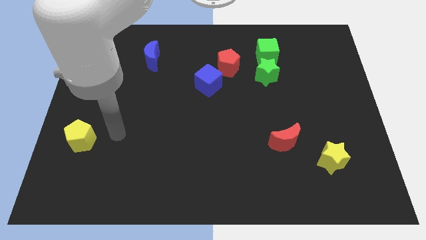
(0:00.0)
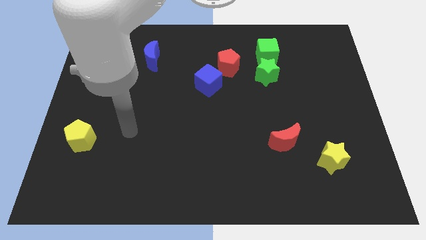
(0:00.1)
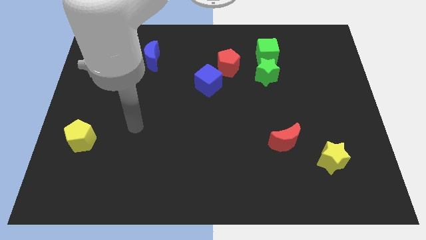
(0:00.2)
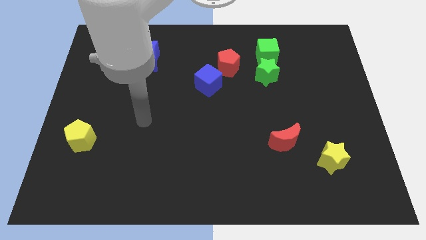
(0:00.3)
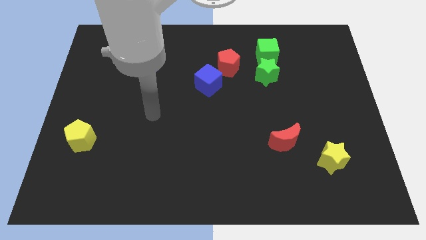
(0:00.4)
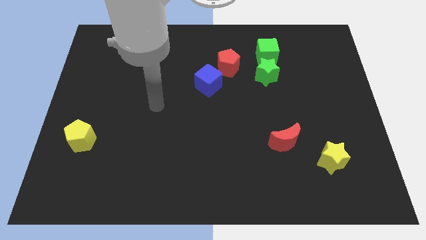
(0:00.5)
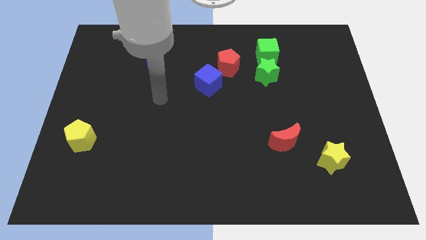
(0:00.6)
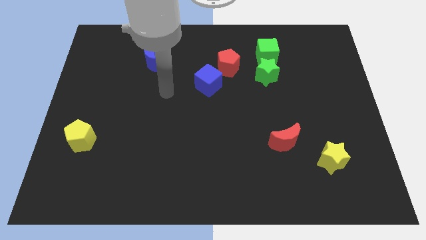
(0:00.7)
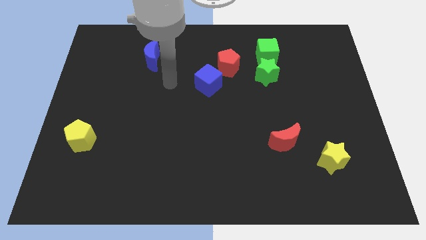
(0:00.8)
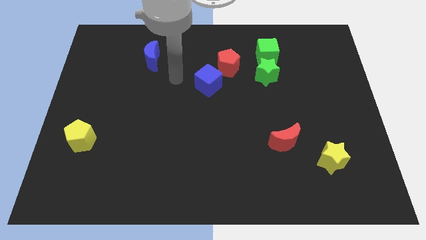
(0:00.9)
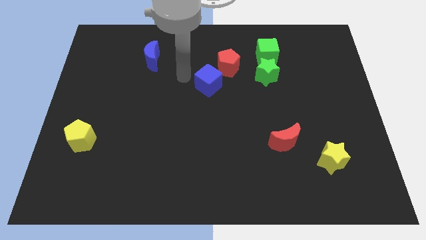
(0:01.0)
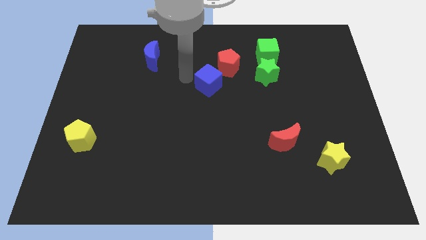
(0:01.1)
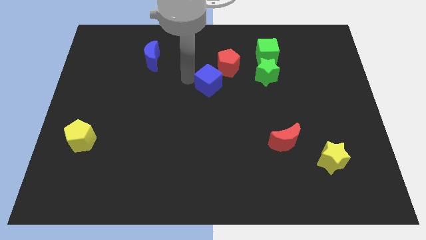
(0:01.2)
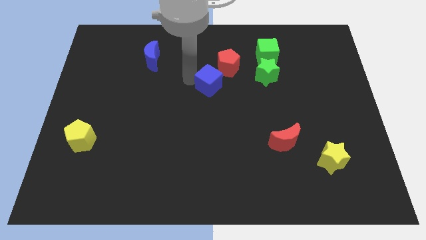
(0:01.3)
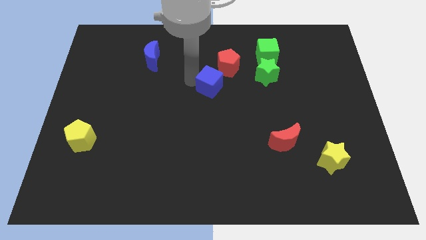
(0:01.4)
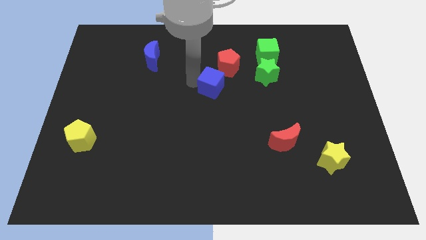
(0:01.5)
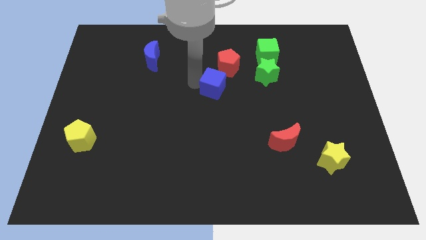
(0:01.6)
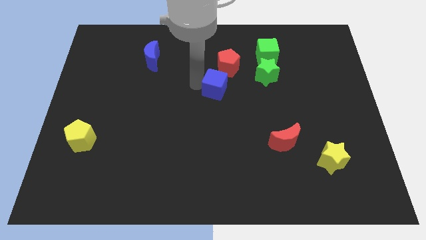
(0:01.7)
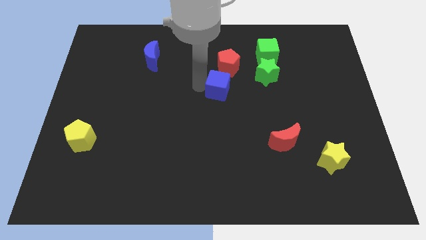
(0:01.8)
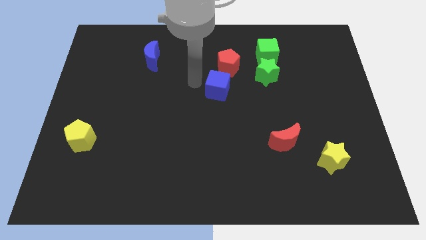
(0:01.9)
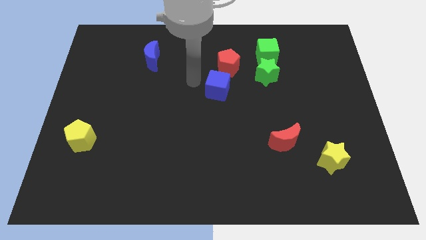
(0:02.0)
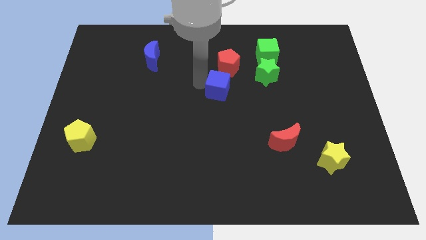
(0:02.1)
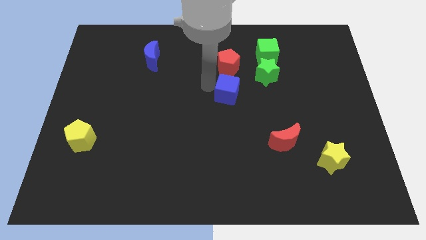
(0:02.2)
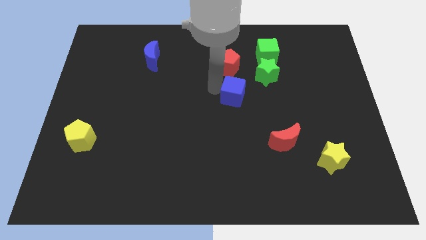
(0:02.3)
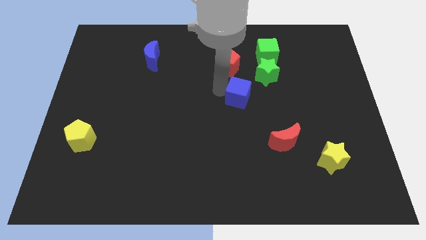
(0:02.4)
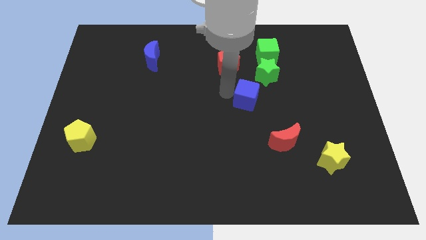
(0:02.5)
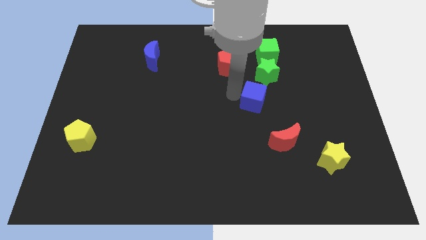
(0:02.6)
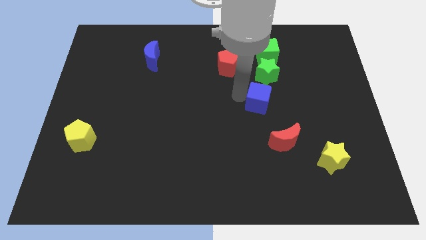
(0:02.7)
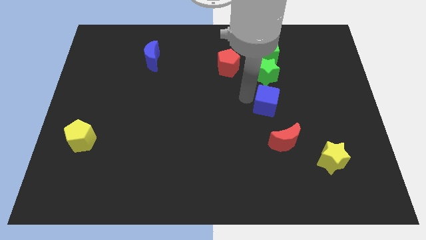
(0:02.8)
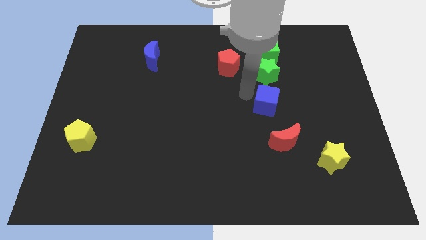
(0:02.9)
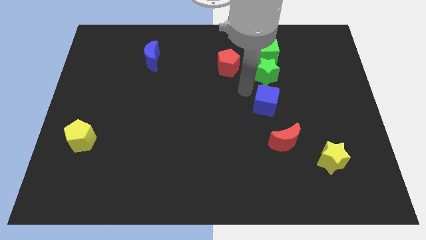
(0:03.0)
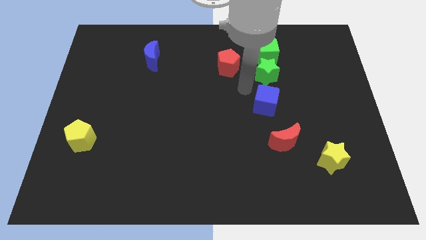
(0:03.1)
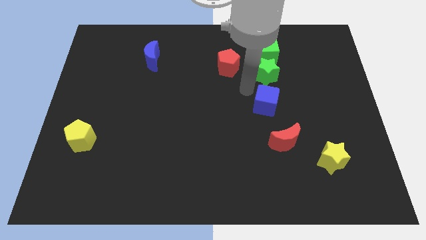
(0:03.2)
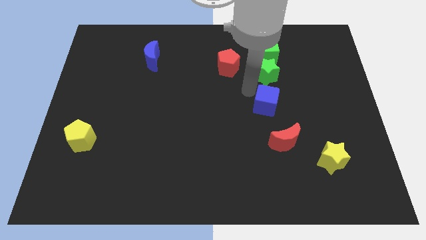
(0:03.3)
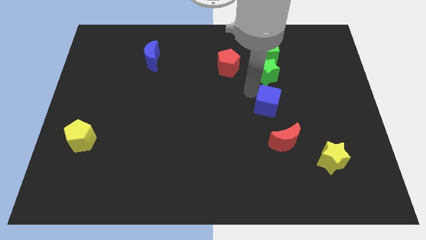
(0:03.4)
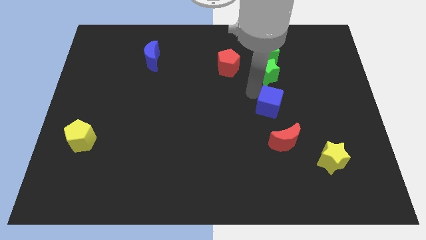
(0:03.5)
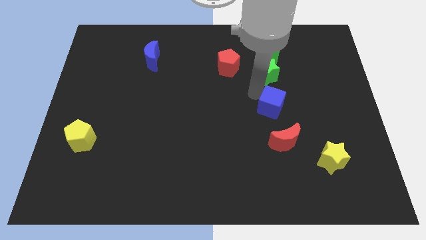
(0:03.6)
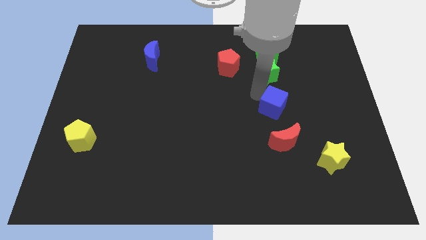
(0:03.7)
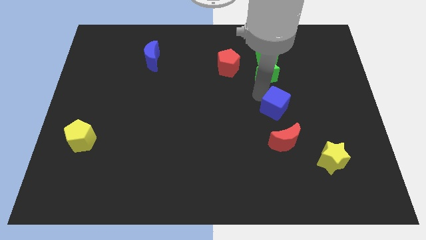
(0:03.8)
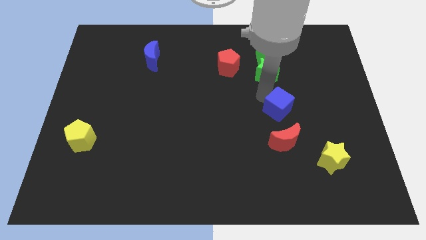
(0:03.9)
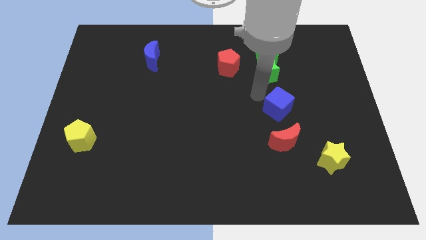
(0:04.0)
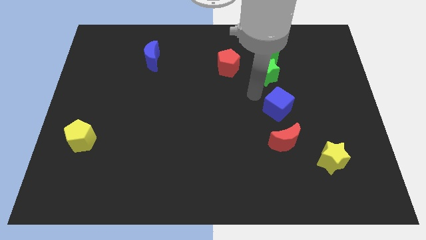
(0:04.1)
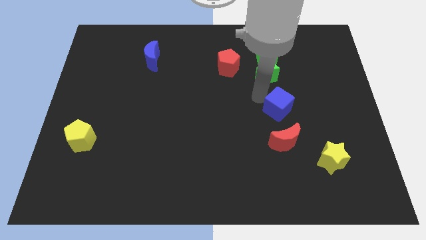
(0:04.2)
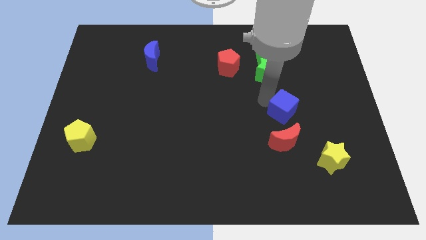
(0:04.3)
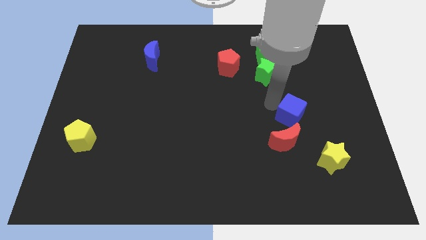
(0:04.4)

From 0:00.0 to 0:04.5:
put the blue cube to the top right side of the red moon

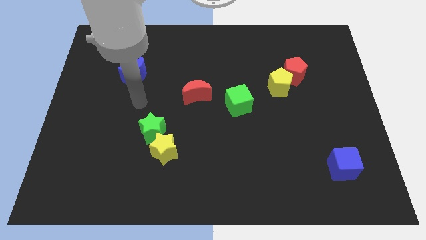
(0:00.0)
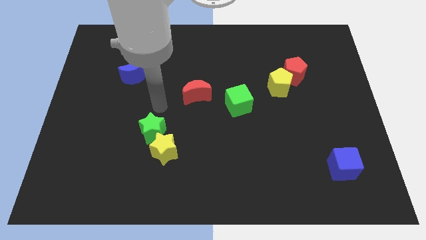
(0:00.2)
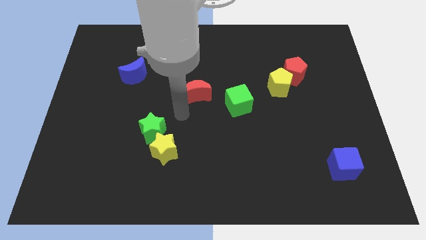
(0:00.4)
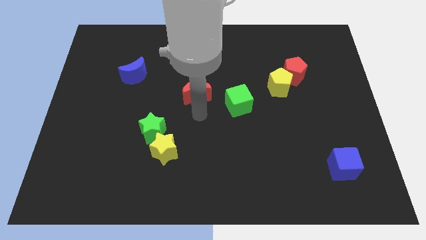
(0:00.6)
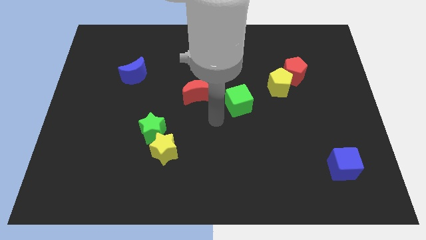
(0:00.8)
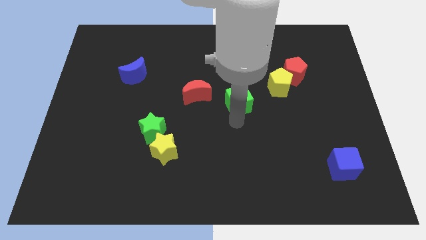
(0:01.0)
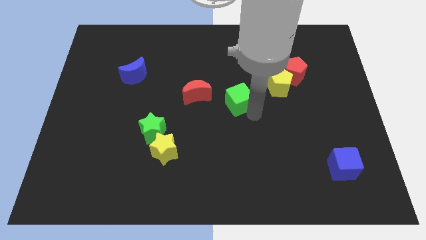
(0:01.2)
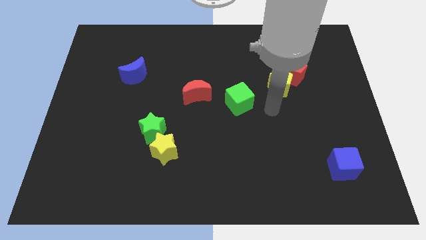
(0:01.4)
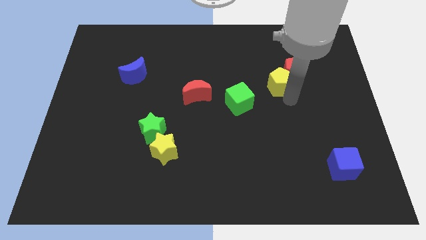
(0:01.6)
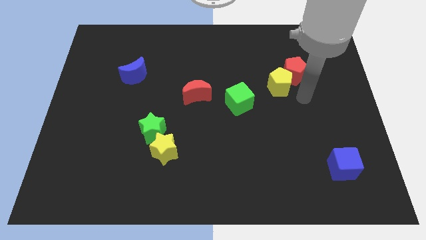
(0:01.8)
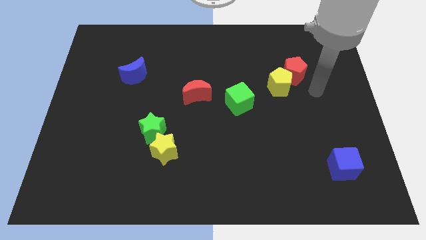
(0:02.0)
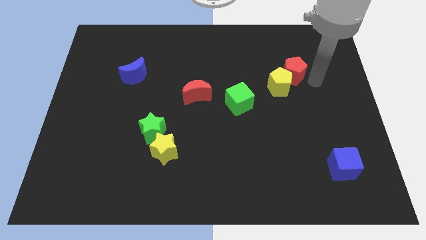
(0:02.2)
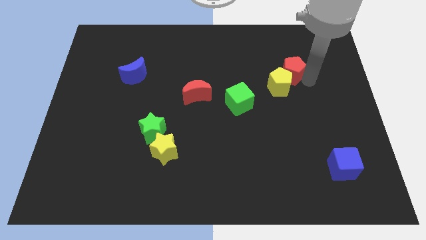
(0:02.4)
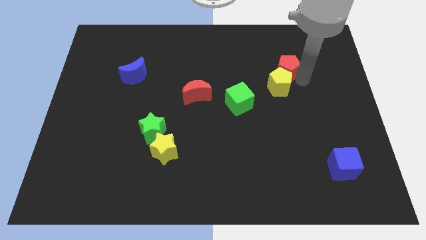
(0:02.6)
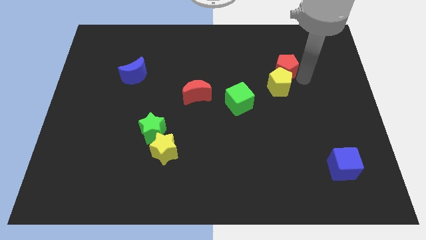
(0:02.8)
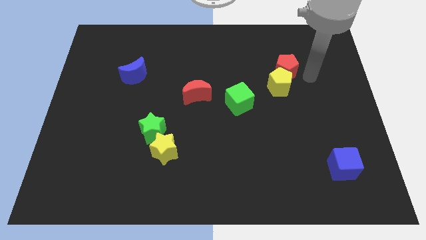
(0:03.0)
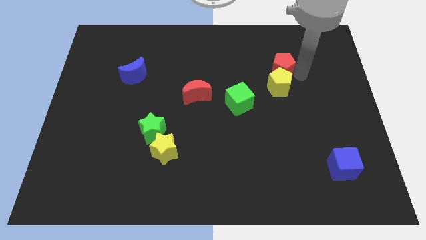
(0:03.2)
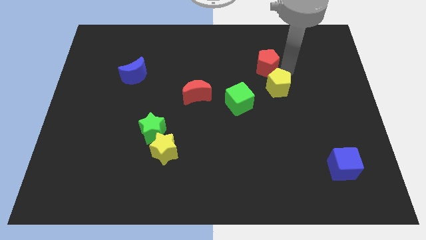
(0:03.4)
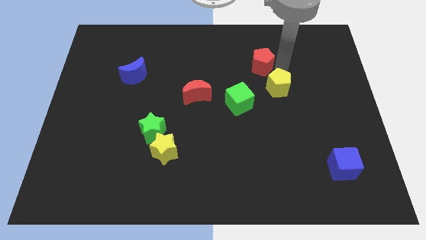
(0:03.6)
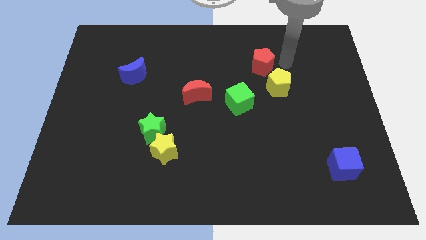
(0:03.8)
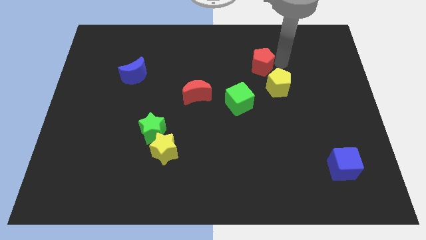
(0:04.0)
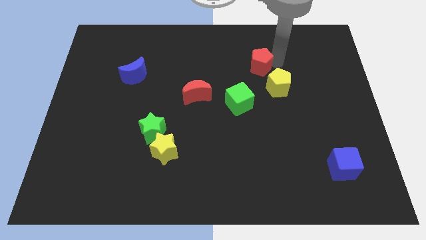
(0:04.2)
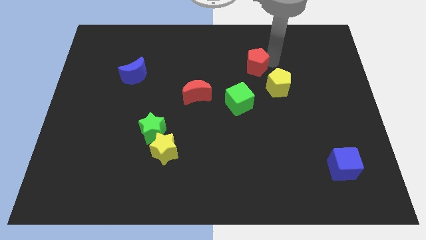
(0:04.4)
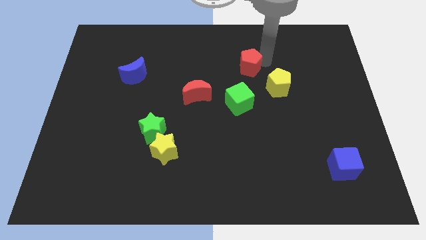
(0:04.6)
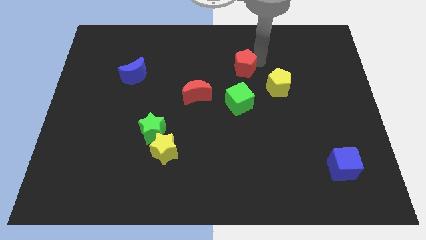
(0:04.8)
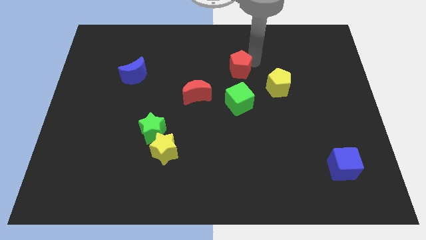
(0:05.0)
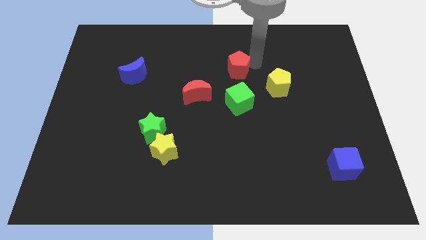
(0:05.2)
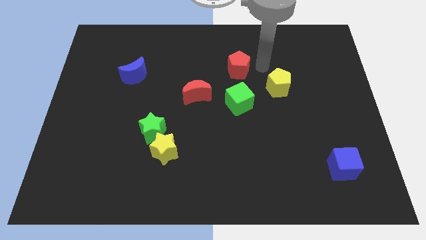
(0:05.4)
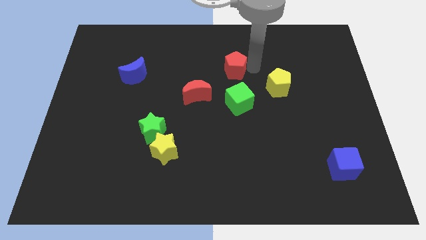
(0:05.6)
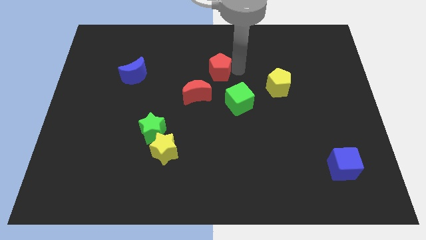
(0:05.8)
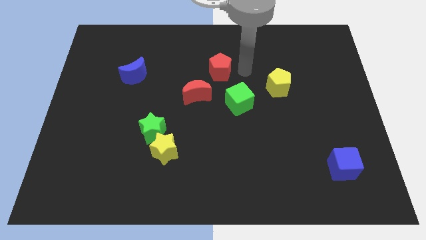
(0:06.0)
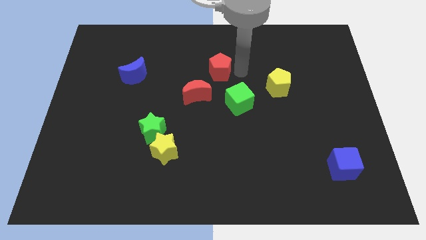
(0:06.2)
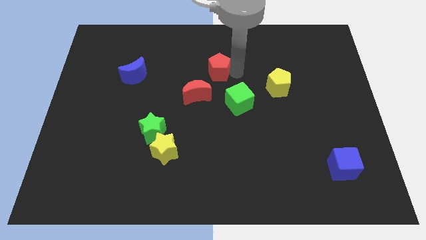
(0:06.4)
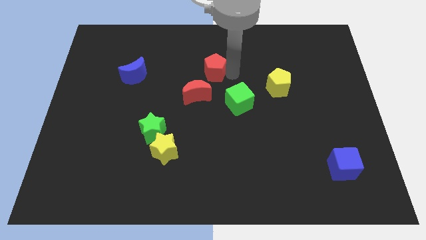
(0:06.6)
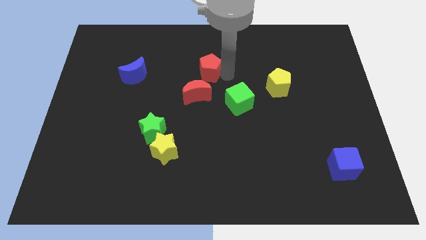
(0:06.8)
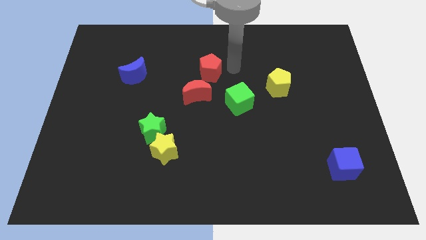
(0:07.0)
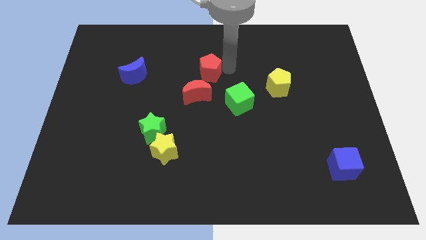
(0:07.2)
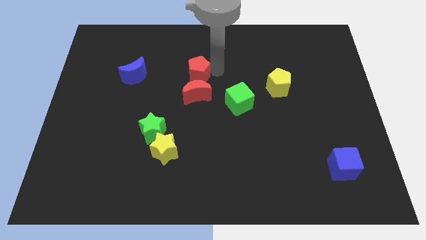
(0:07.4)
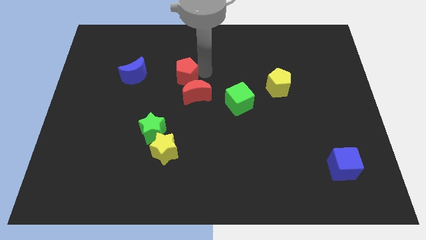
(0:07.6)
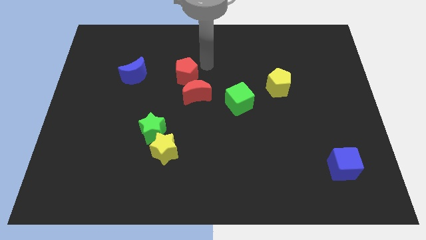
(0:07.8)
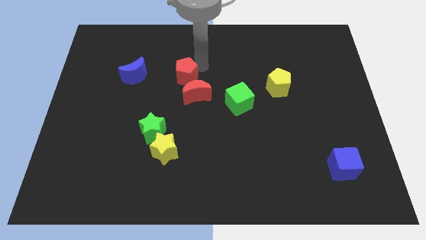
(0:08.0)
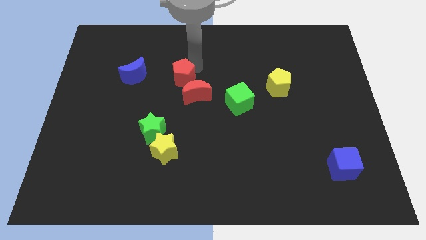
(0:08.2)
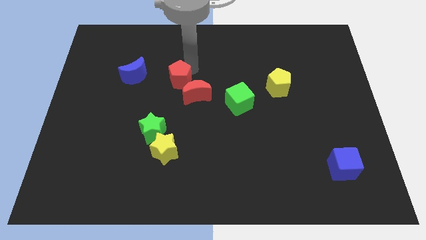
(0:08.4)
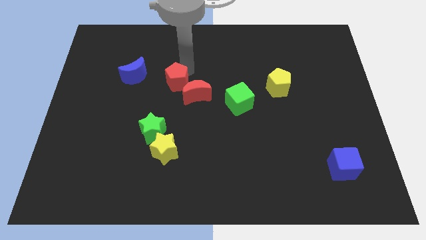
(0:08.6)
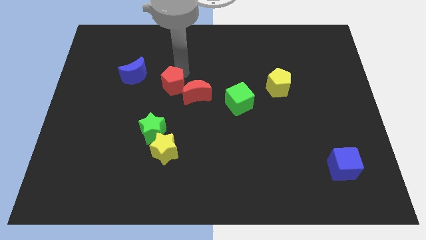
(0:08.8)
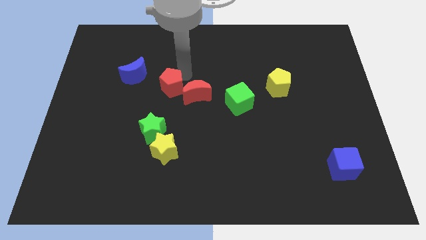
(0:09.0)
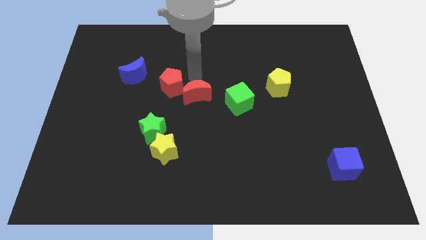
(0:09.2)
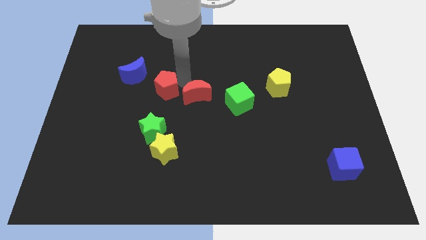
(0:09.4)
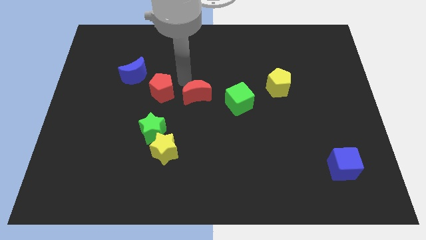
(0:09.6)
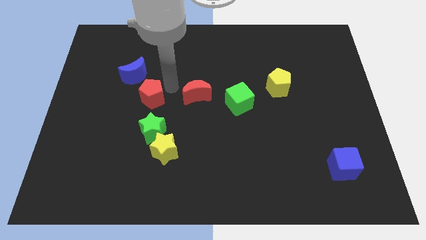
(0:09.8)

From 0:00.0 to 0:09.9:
put the red pentagon below the blue moon
